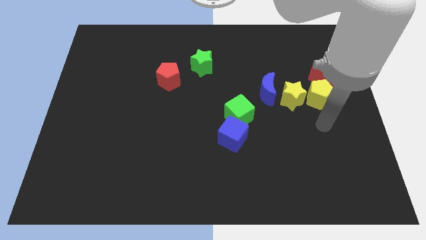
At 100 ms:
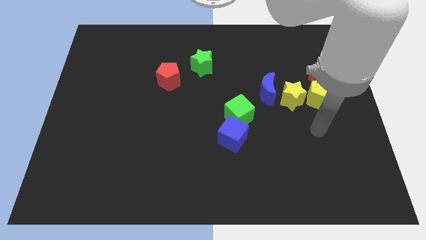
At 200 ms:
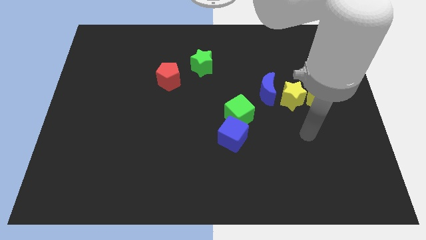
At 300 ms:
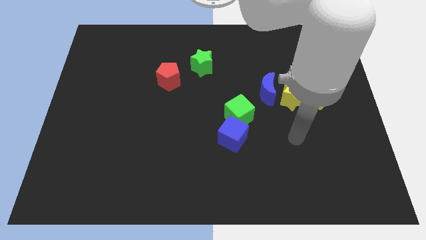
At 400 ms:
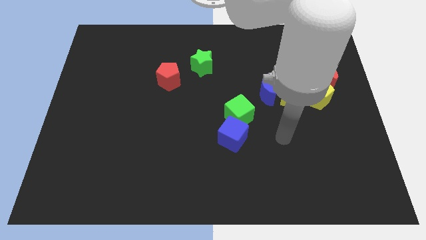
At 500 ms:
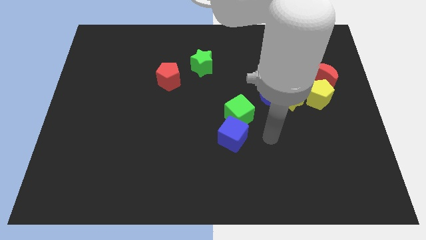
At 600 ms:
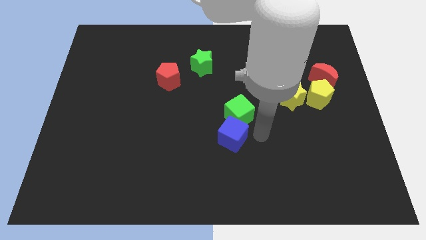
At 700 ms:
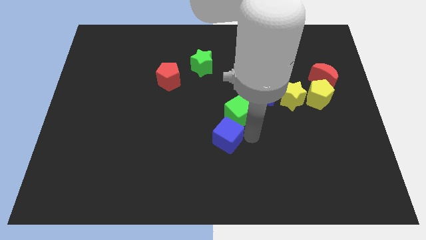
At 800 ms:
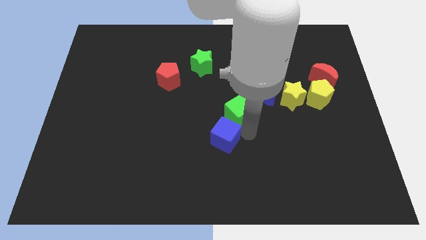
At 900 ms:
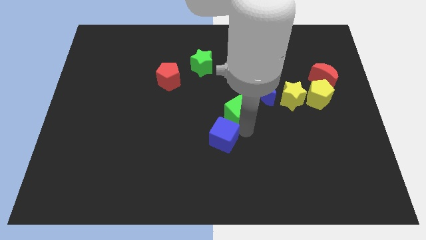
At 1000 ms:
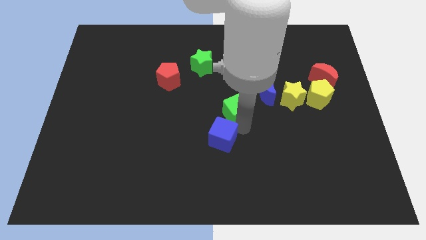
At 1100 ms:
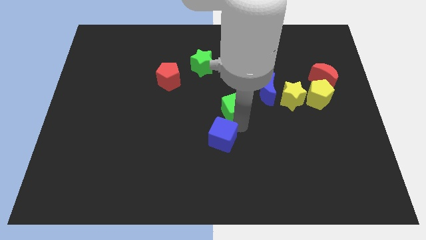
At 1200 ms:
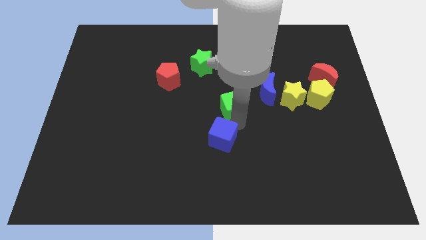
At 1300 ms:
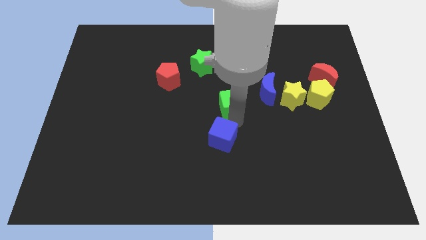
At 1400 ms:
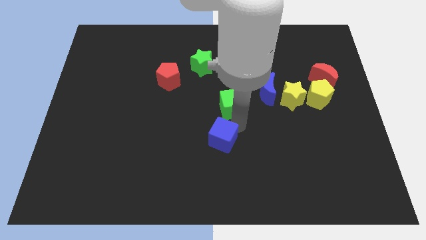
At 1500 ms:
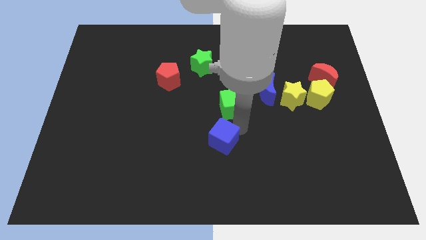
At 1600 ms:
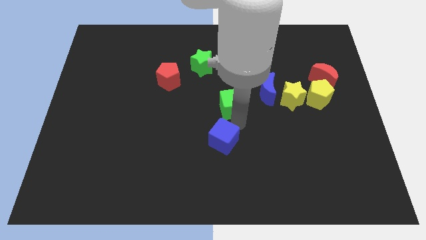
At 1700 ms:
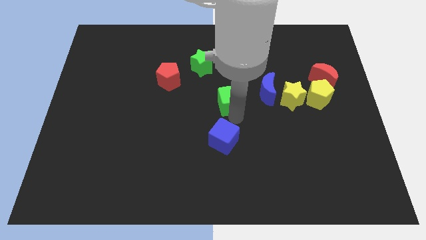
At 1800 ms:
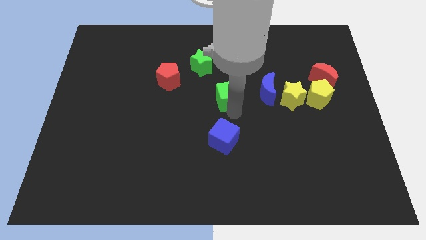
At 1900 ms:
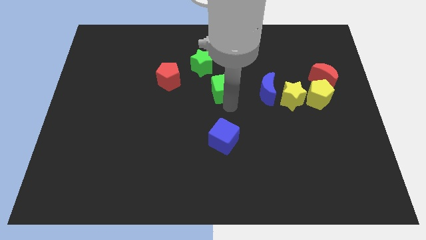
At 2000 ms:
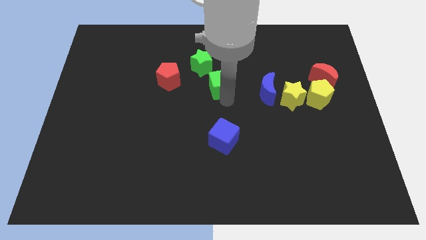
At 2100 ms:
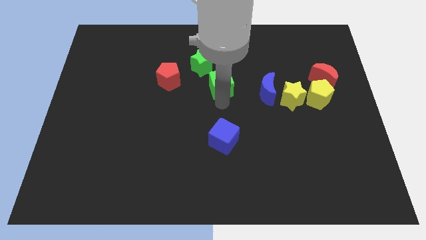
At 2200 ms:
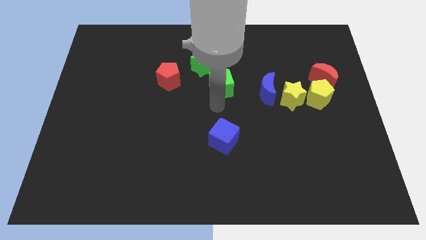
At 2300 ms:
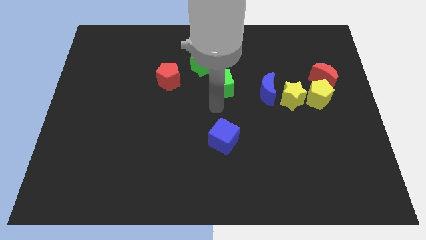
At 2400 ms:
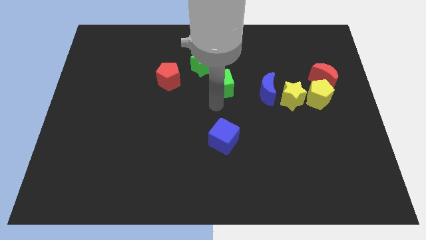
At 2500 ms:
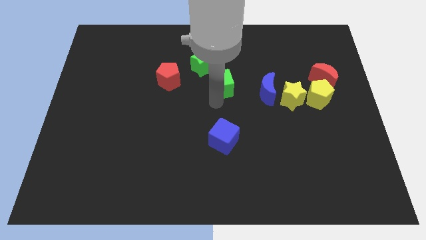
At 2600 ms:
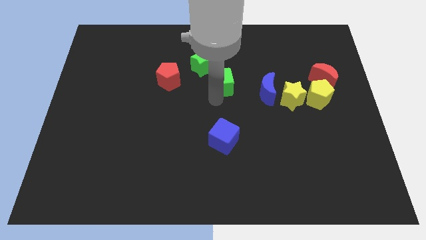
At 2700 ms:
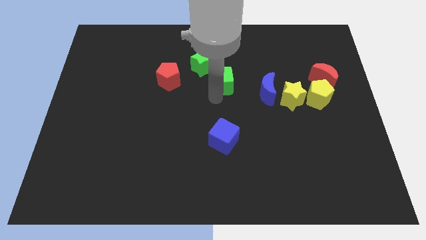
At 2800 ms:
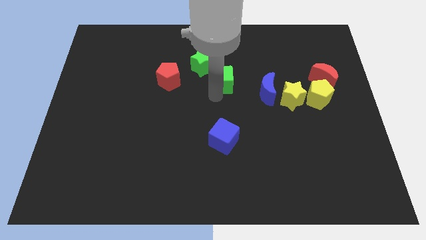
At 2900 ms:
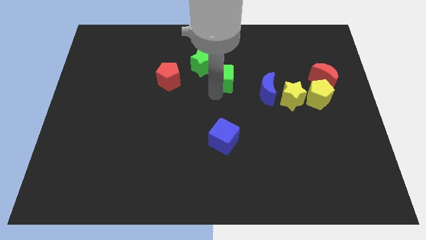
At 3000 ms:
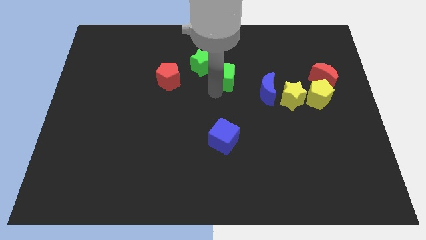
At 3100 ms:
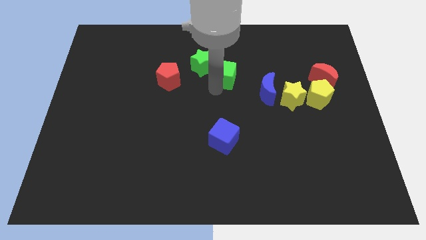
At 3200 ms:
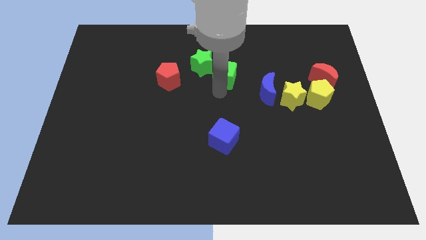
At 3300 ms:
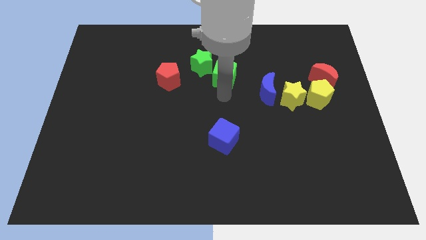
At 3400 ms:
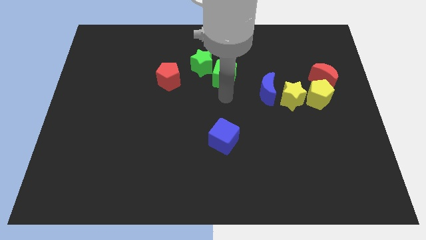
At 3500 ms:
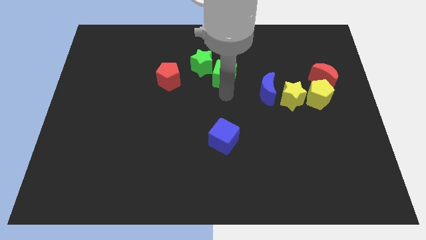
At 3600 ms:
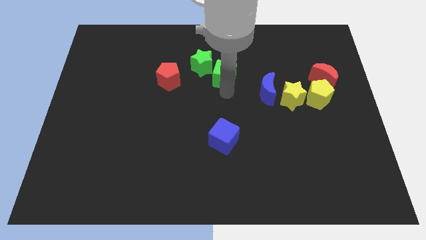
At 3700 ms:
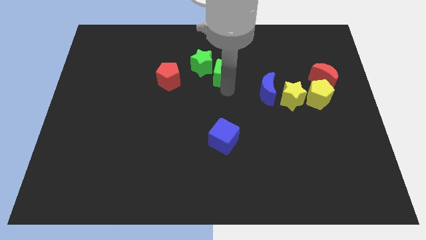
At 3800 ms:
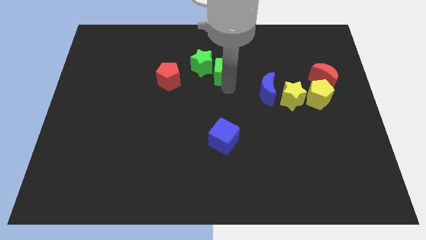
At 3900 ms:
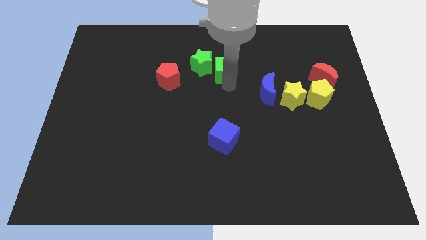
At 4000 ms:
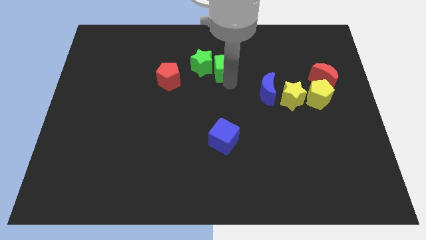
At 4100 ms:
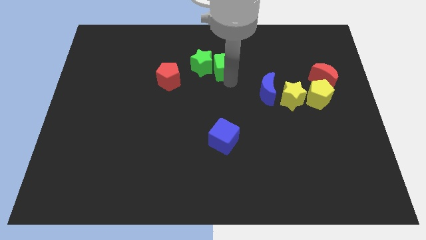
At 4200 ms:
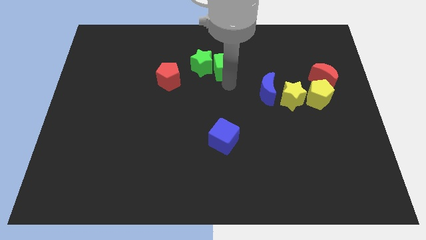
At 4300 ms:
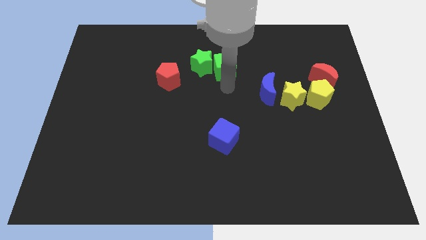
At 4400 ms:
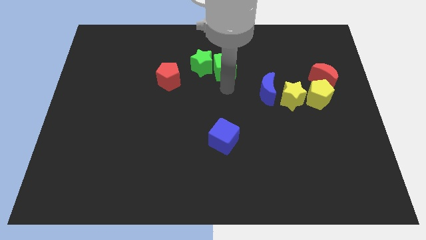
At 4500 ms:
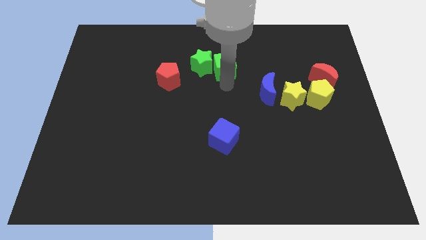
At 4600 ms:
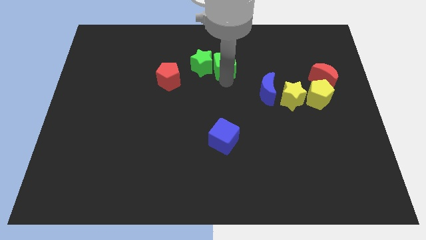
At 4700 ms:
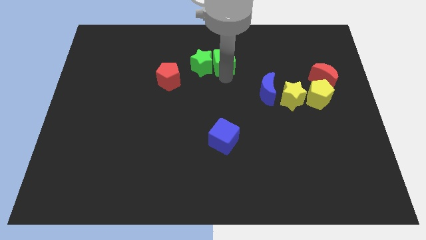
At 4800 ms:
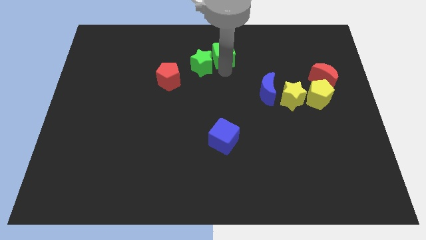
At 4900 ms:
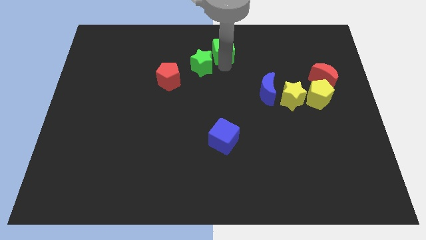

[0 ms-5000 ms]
move the green cube to the top side

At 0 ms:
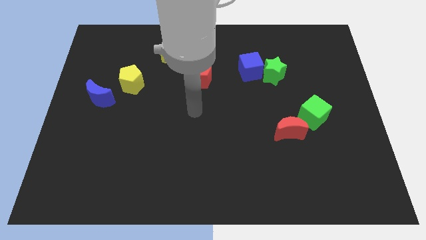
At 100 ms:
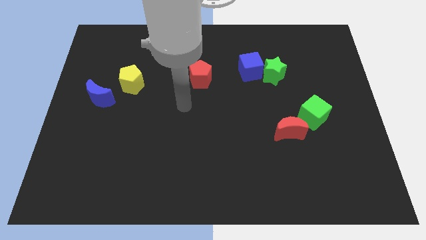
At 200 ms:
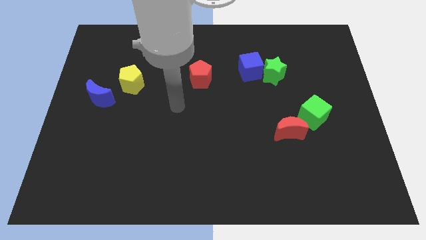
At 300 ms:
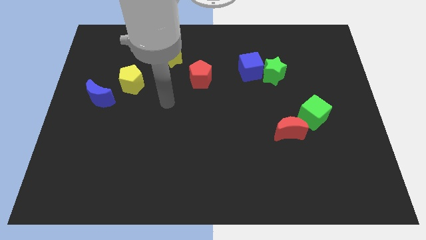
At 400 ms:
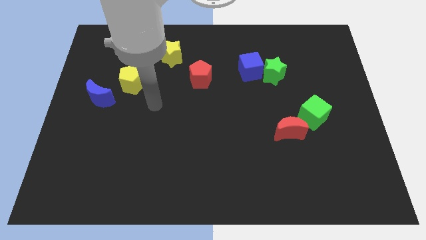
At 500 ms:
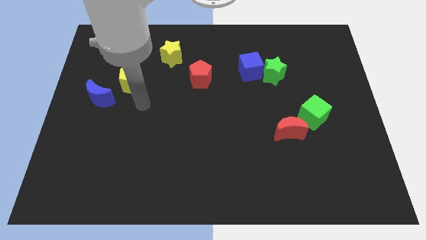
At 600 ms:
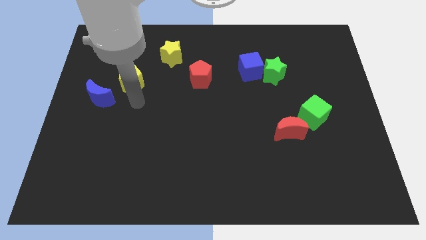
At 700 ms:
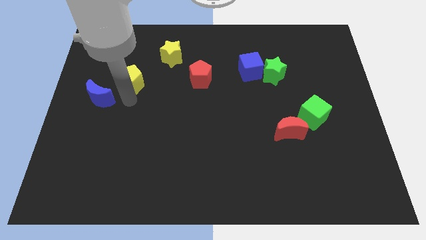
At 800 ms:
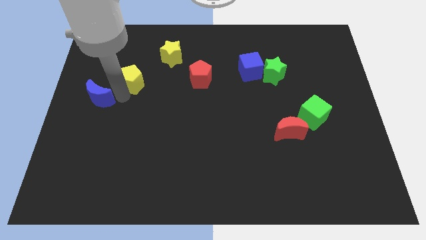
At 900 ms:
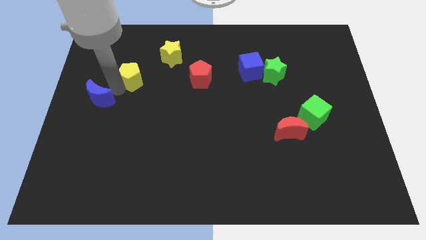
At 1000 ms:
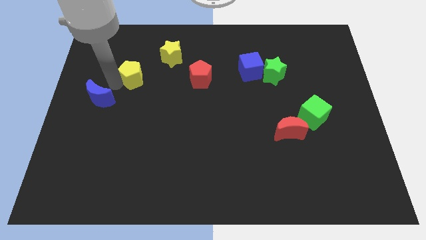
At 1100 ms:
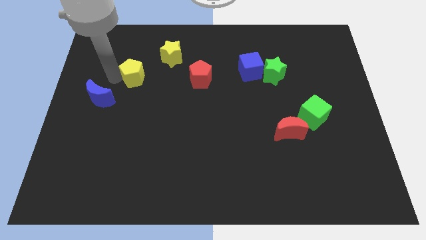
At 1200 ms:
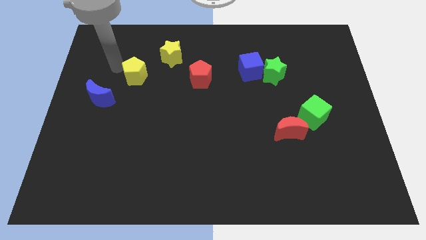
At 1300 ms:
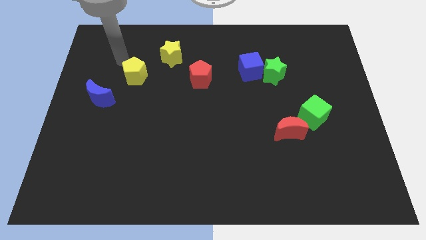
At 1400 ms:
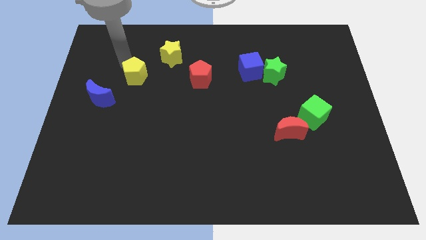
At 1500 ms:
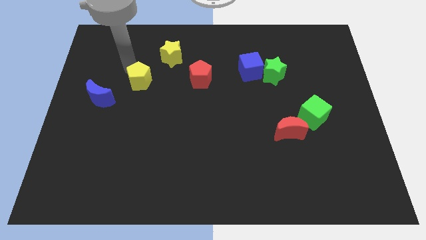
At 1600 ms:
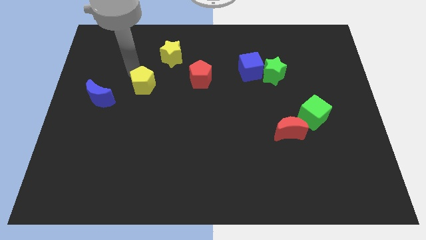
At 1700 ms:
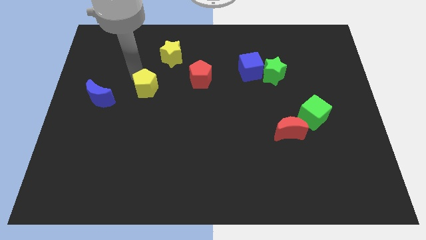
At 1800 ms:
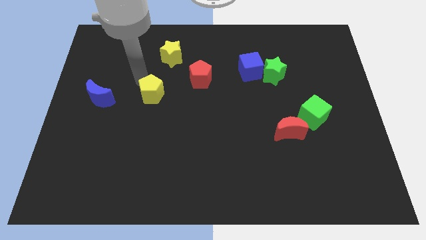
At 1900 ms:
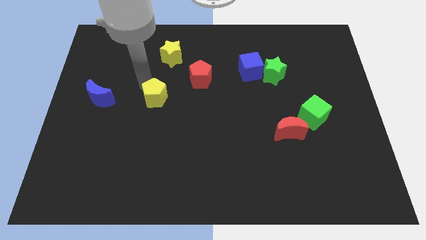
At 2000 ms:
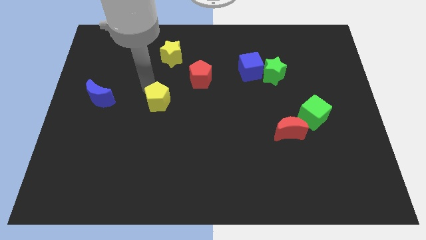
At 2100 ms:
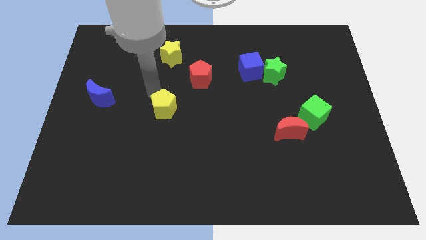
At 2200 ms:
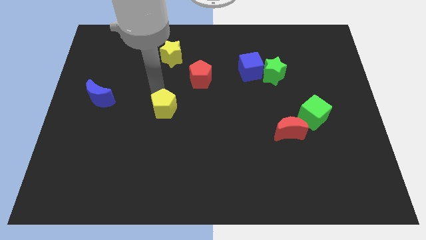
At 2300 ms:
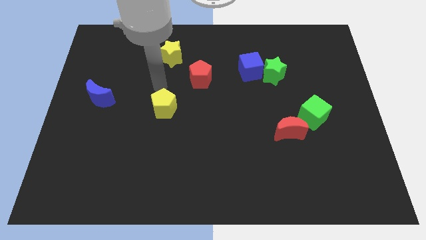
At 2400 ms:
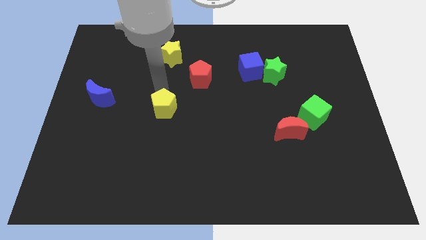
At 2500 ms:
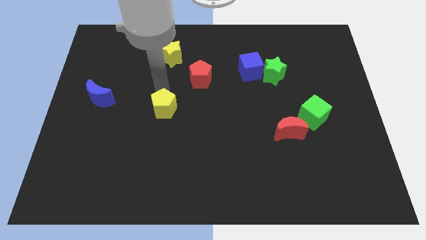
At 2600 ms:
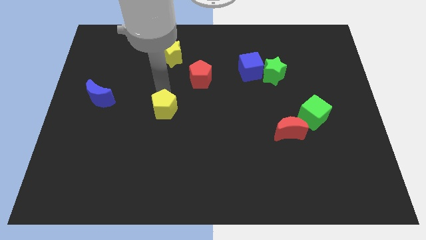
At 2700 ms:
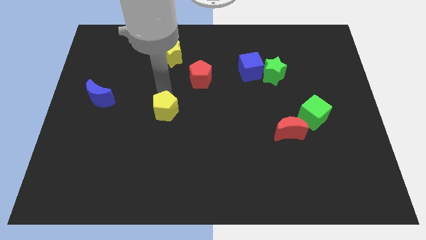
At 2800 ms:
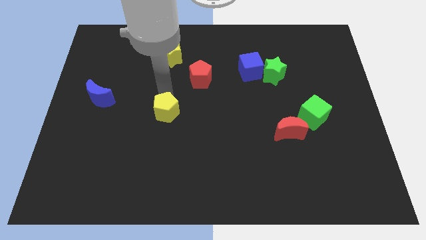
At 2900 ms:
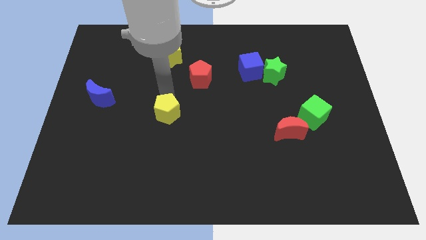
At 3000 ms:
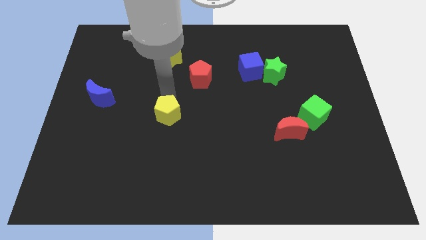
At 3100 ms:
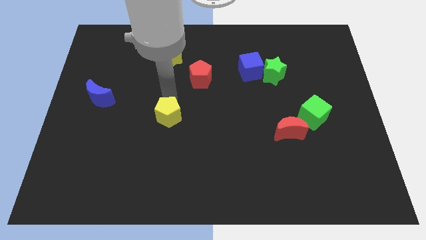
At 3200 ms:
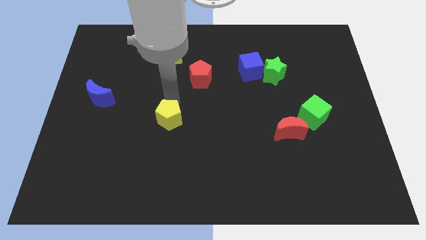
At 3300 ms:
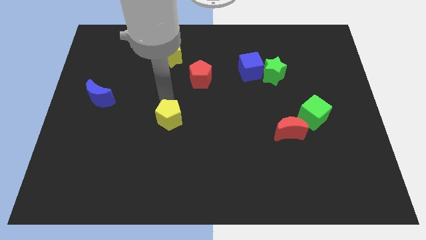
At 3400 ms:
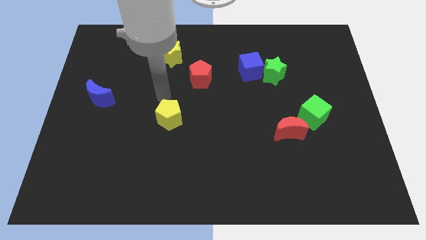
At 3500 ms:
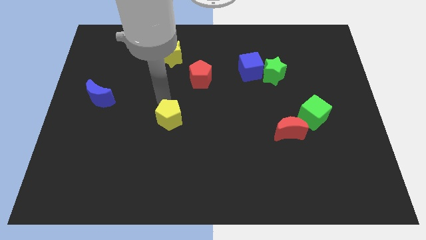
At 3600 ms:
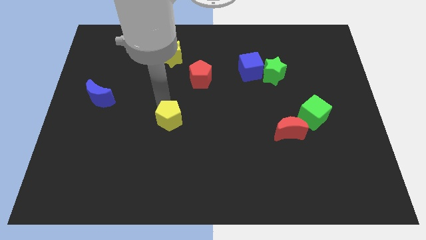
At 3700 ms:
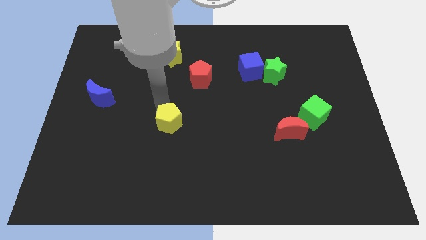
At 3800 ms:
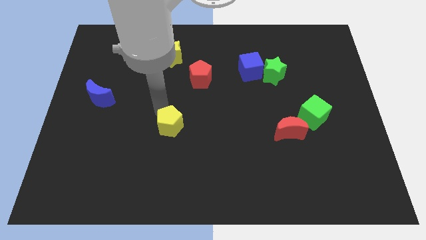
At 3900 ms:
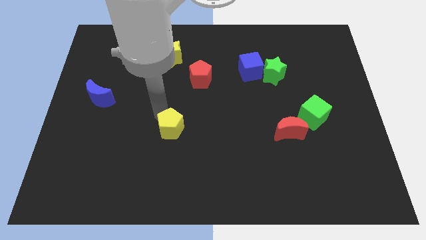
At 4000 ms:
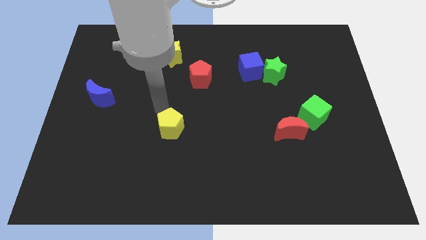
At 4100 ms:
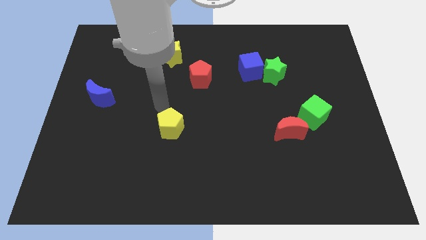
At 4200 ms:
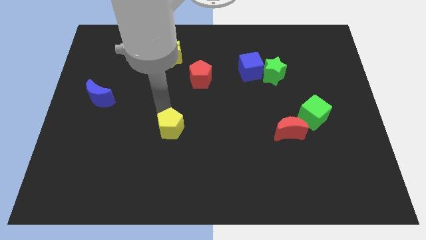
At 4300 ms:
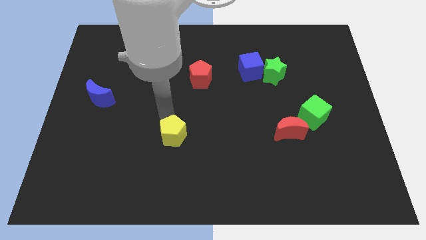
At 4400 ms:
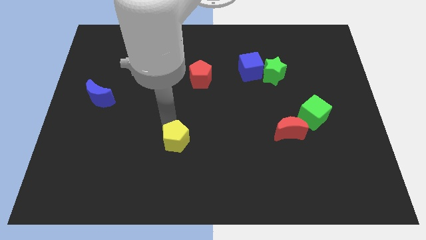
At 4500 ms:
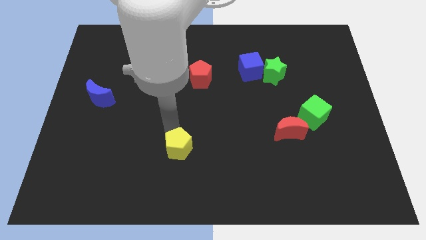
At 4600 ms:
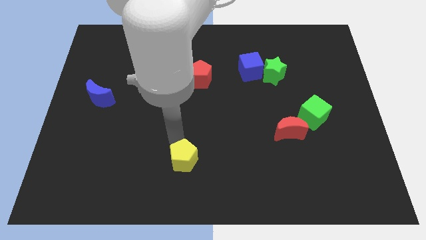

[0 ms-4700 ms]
push the yellow pentagon to the bottom side
